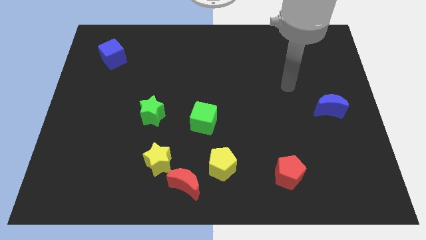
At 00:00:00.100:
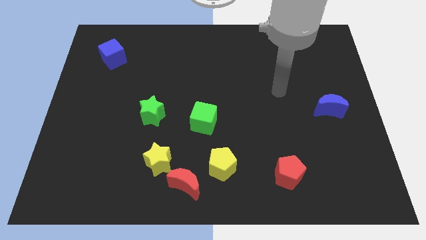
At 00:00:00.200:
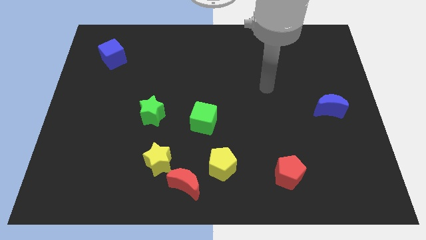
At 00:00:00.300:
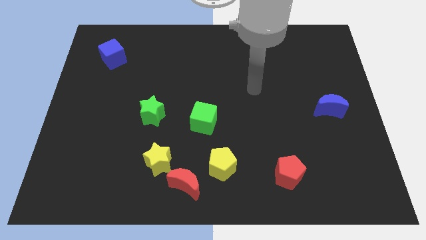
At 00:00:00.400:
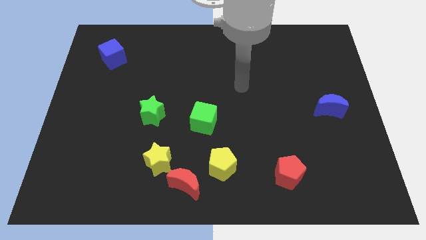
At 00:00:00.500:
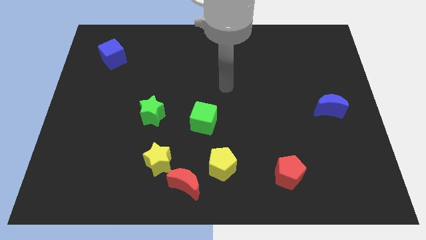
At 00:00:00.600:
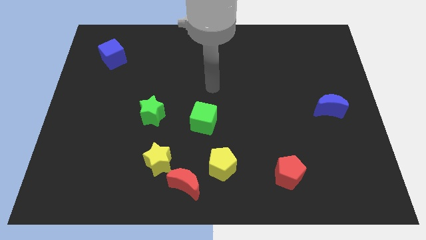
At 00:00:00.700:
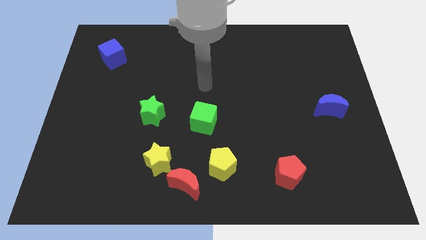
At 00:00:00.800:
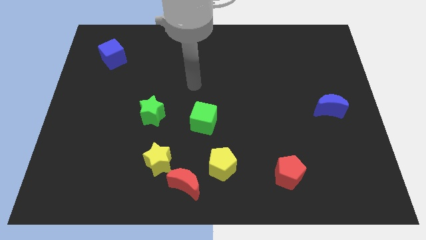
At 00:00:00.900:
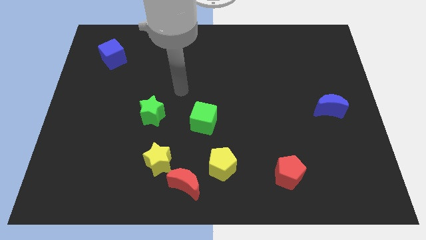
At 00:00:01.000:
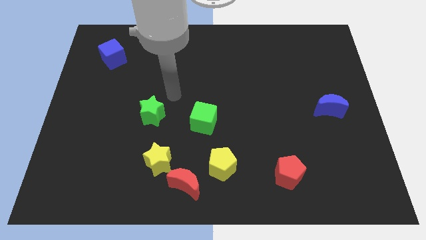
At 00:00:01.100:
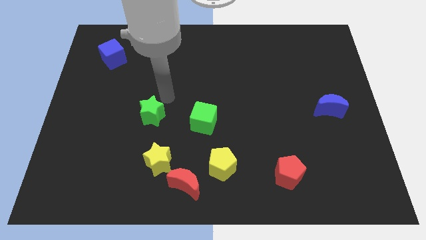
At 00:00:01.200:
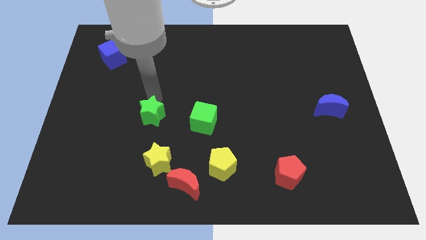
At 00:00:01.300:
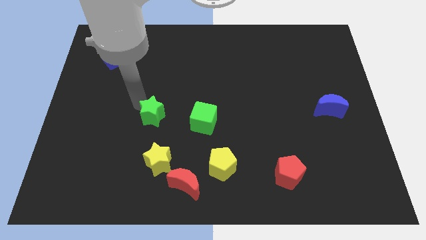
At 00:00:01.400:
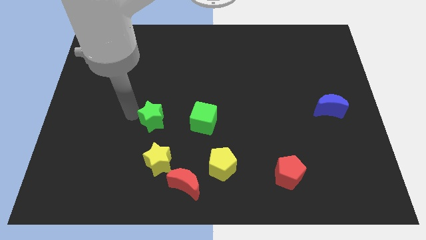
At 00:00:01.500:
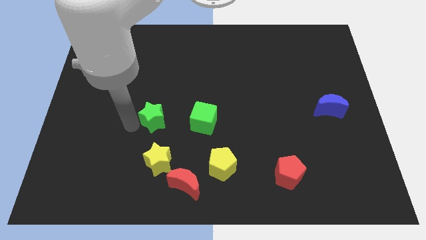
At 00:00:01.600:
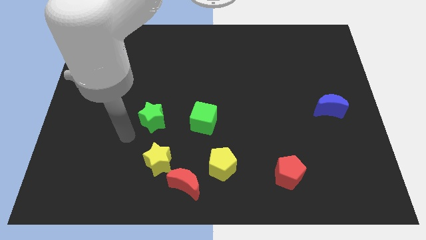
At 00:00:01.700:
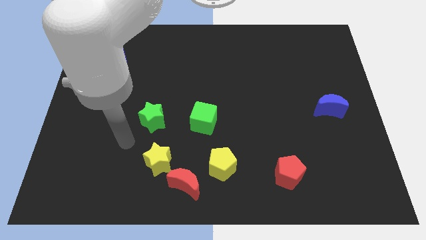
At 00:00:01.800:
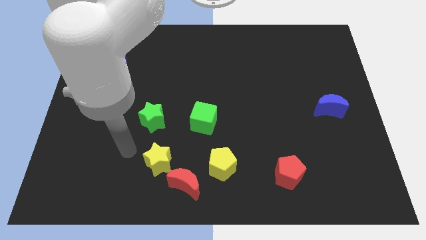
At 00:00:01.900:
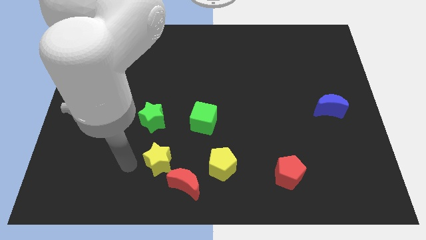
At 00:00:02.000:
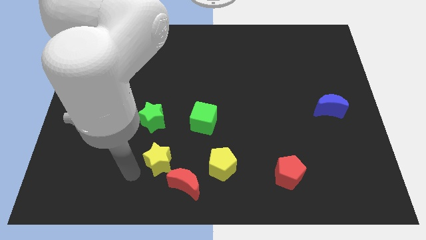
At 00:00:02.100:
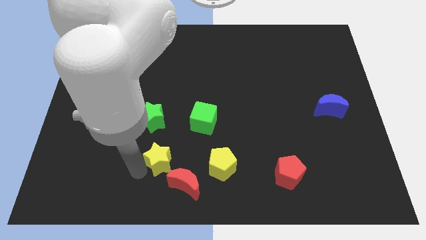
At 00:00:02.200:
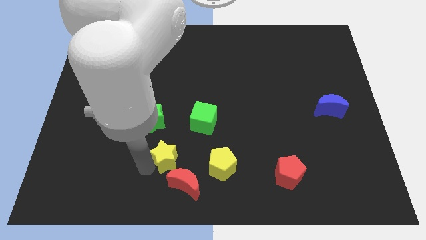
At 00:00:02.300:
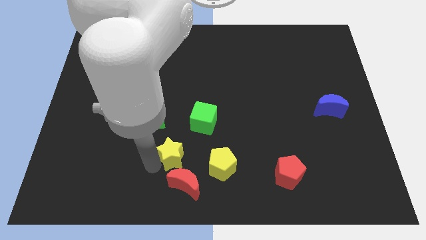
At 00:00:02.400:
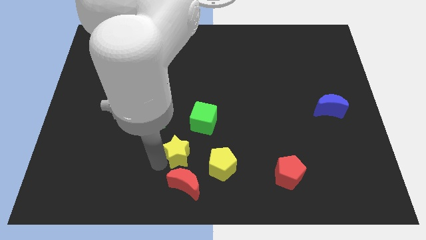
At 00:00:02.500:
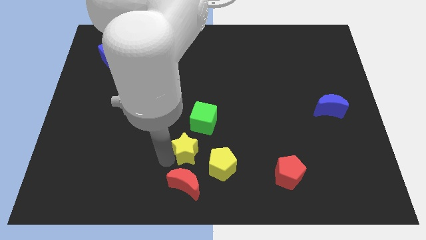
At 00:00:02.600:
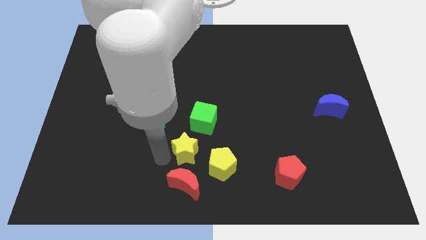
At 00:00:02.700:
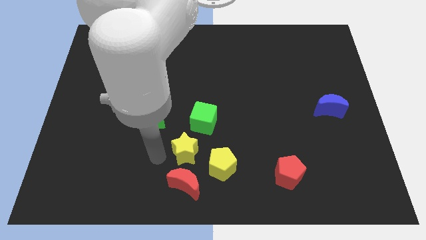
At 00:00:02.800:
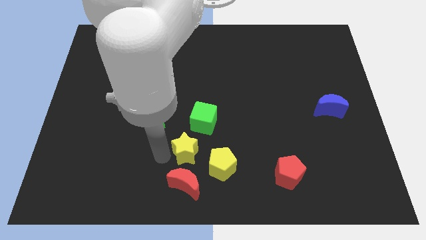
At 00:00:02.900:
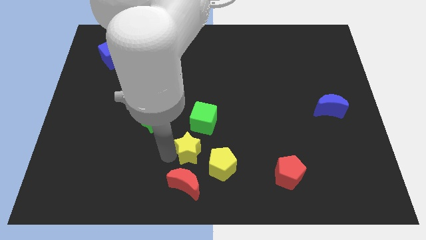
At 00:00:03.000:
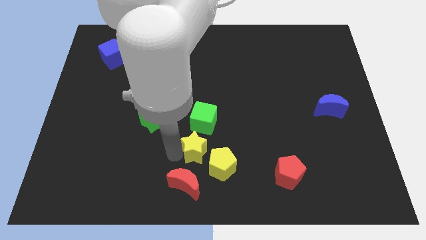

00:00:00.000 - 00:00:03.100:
push the yellow star to the right a little bit

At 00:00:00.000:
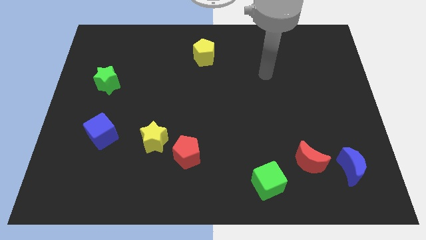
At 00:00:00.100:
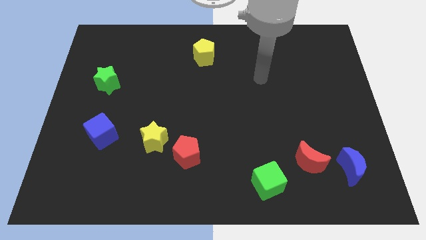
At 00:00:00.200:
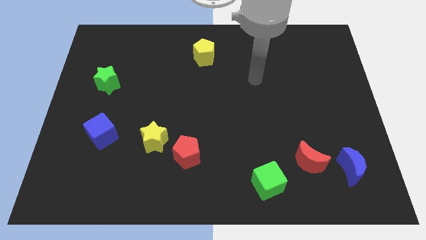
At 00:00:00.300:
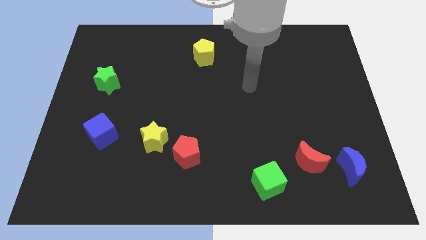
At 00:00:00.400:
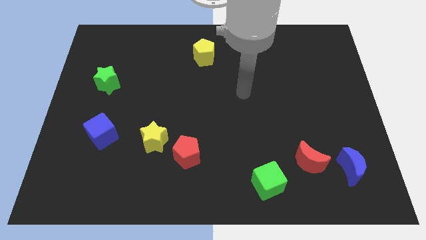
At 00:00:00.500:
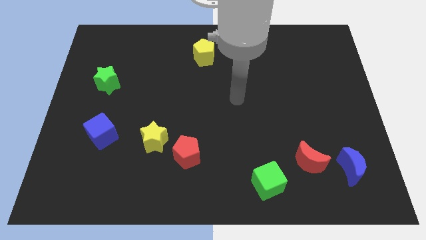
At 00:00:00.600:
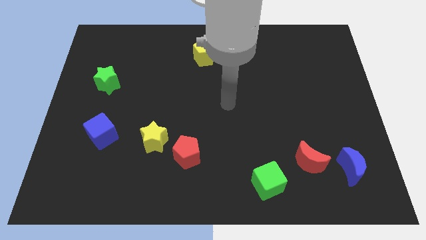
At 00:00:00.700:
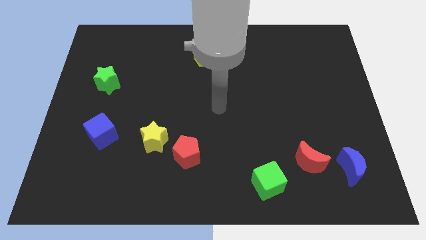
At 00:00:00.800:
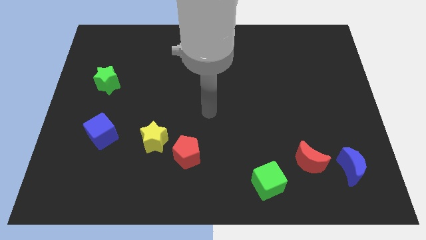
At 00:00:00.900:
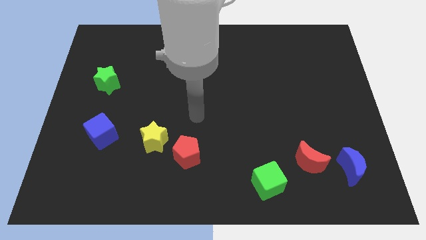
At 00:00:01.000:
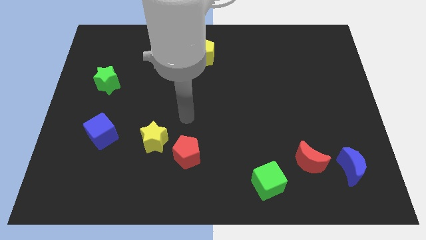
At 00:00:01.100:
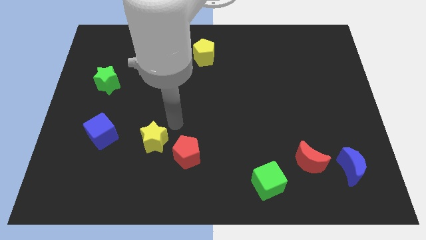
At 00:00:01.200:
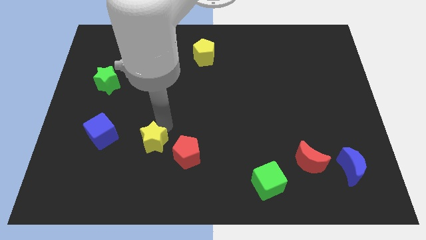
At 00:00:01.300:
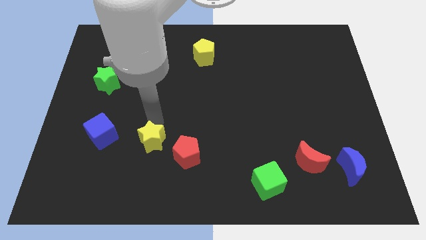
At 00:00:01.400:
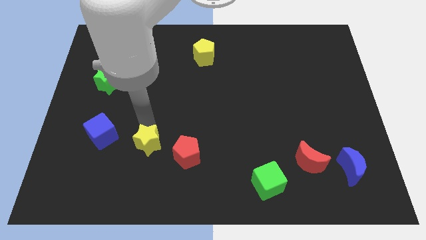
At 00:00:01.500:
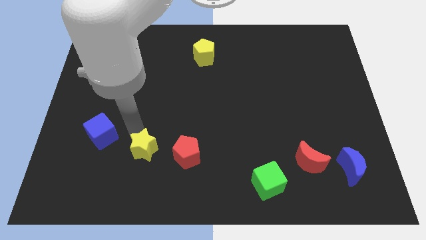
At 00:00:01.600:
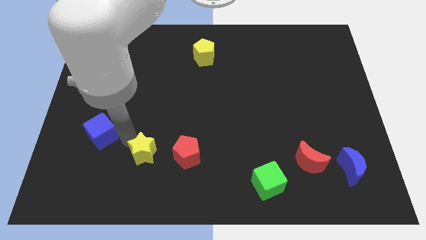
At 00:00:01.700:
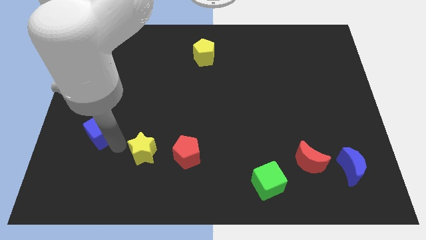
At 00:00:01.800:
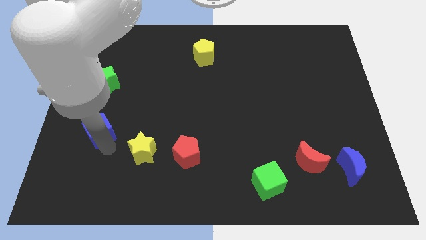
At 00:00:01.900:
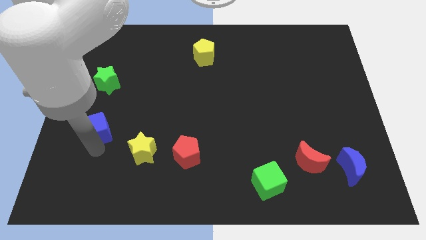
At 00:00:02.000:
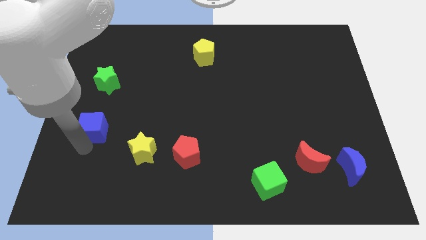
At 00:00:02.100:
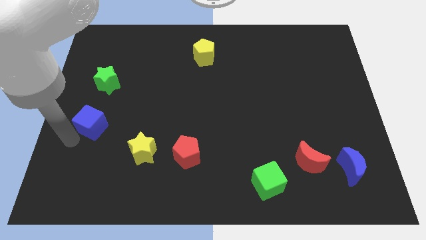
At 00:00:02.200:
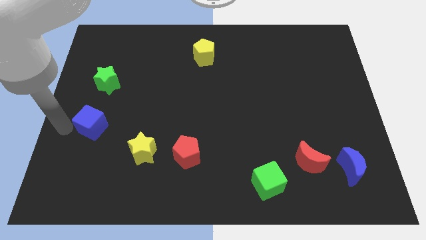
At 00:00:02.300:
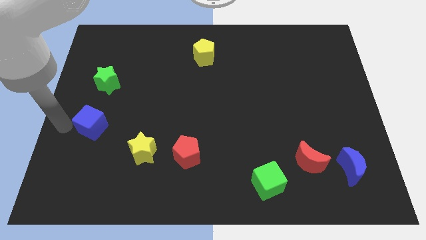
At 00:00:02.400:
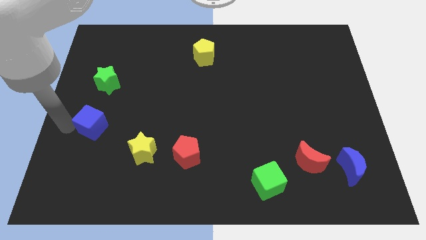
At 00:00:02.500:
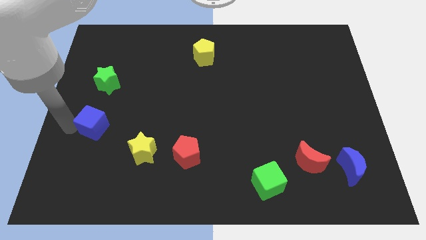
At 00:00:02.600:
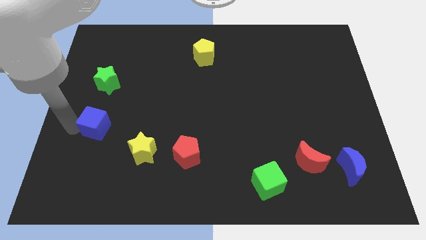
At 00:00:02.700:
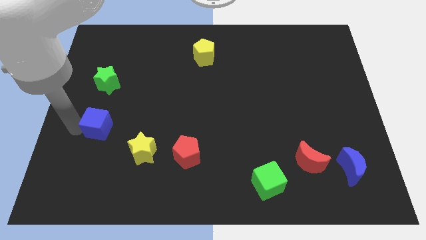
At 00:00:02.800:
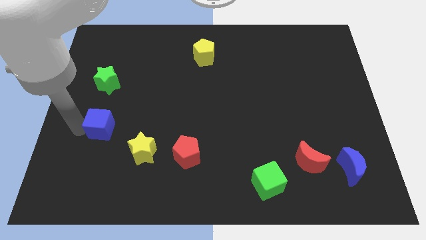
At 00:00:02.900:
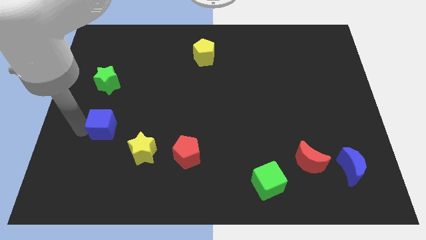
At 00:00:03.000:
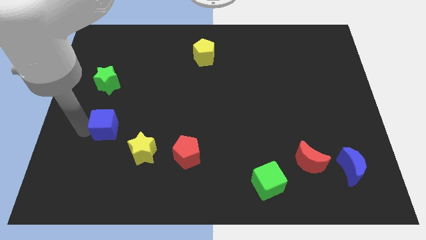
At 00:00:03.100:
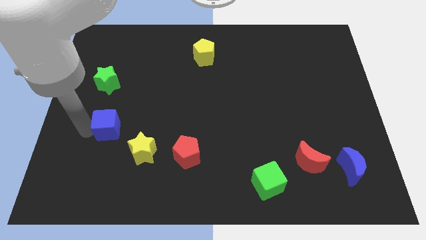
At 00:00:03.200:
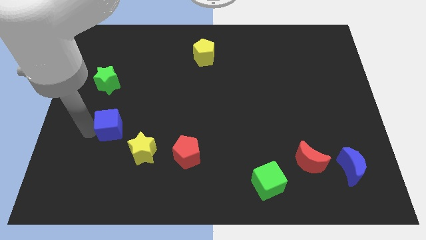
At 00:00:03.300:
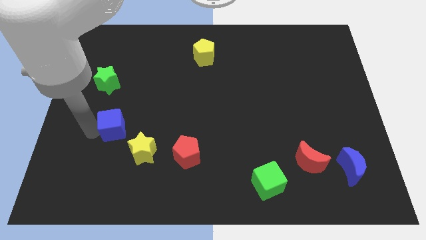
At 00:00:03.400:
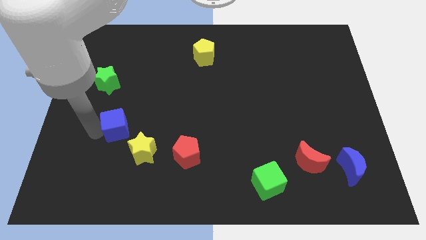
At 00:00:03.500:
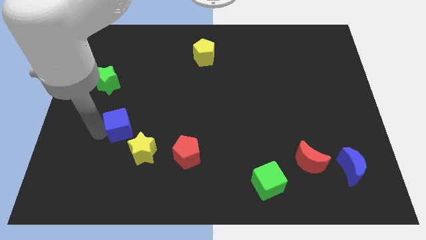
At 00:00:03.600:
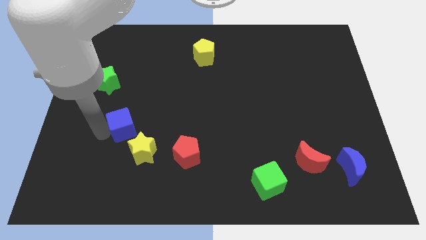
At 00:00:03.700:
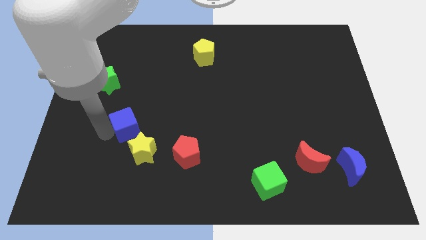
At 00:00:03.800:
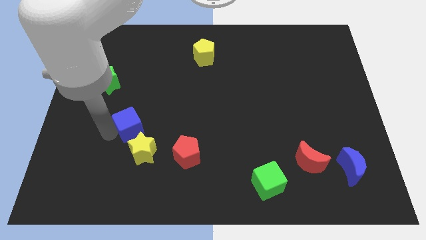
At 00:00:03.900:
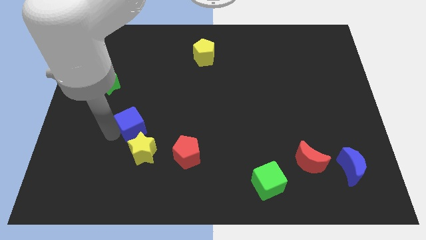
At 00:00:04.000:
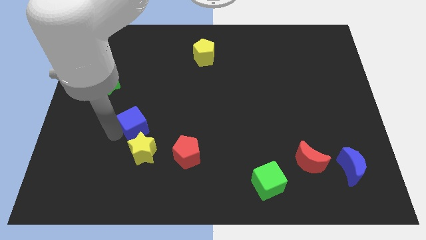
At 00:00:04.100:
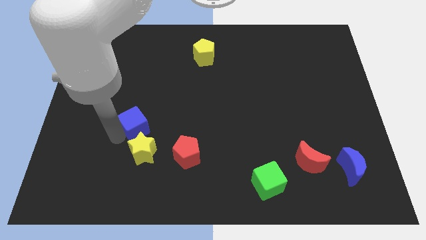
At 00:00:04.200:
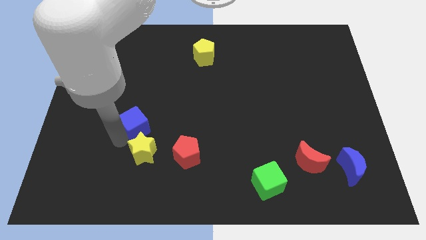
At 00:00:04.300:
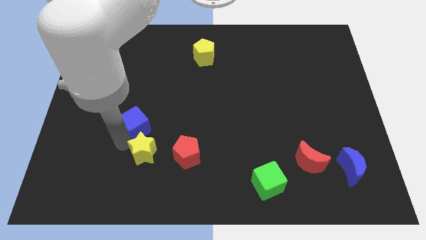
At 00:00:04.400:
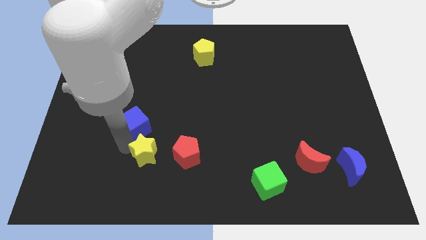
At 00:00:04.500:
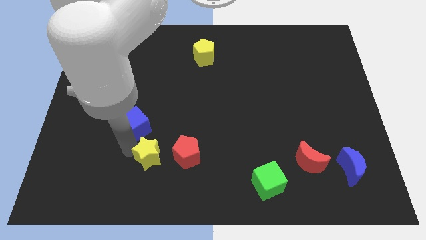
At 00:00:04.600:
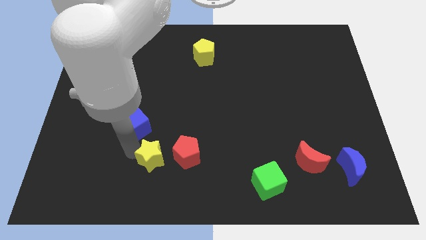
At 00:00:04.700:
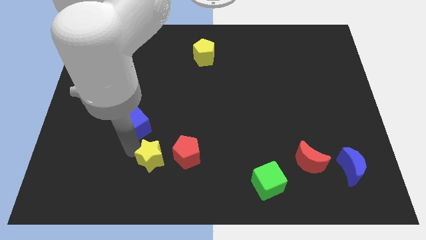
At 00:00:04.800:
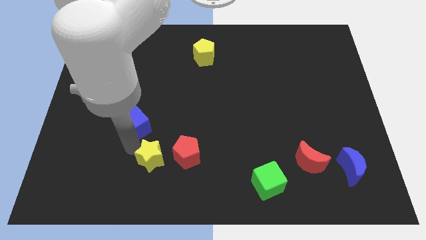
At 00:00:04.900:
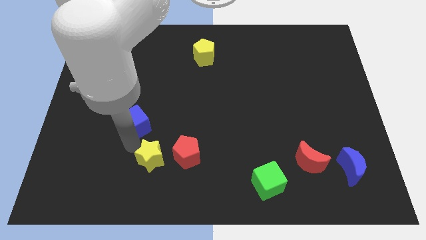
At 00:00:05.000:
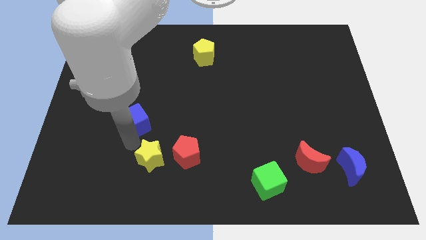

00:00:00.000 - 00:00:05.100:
move the blue cube a bit upwards and then to the right
